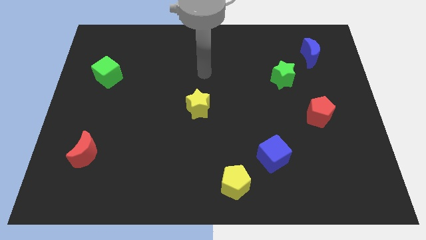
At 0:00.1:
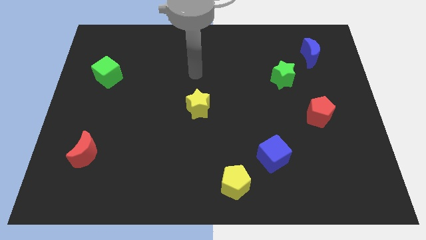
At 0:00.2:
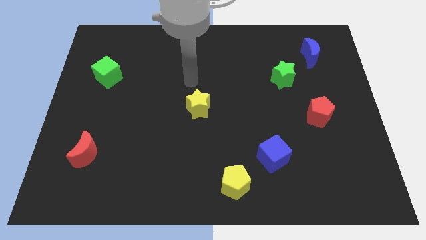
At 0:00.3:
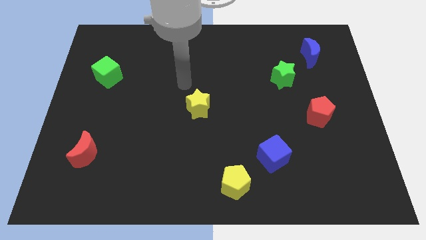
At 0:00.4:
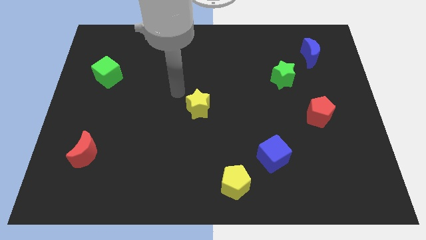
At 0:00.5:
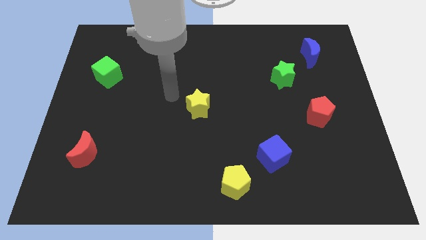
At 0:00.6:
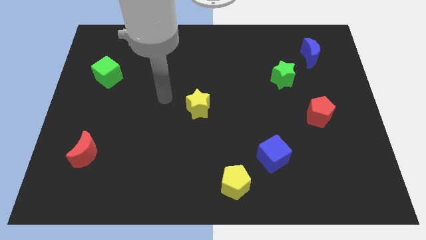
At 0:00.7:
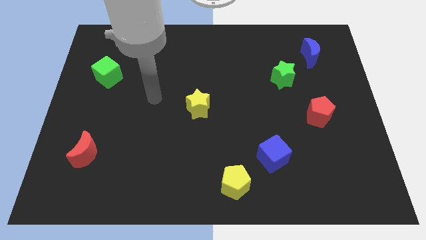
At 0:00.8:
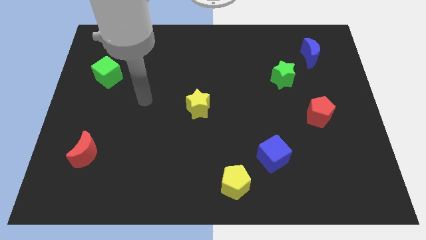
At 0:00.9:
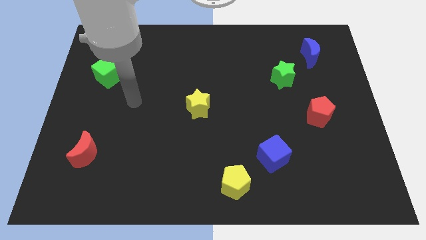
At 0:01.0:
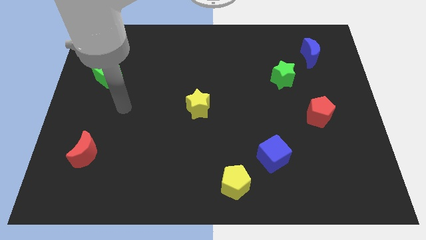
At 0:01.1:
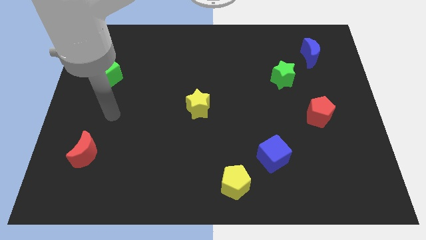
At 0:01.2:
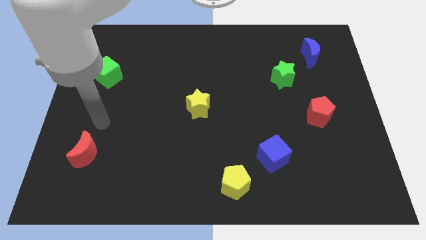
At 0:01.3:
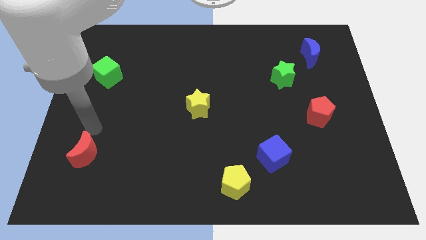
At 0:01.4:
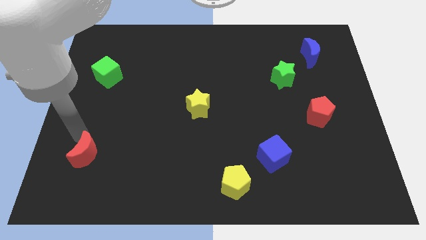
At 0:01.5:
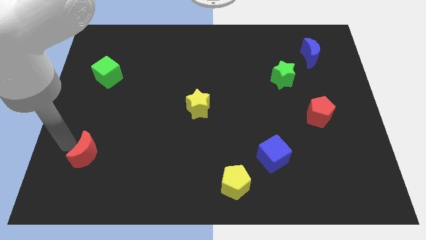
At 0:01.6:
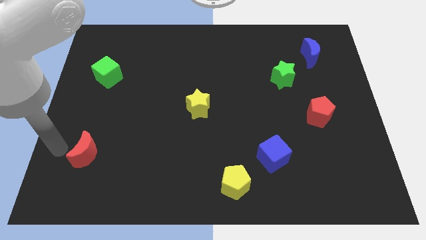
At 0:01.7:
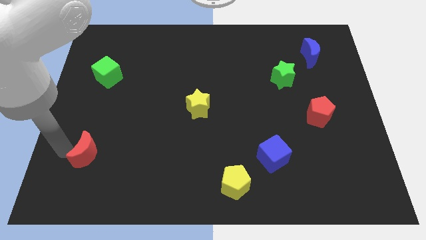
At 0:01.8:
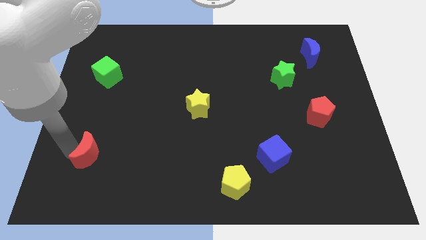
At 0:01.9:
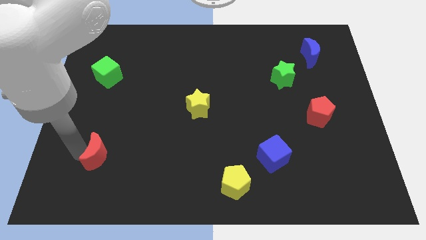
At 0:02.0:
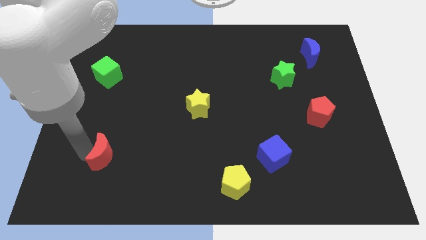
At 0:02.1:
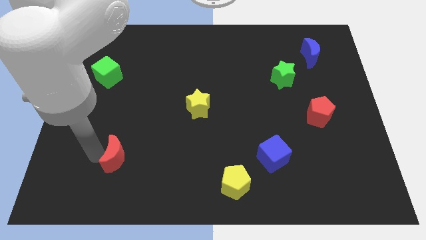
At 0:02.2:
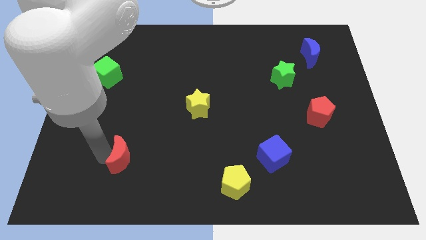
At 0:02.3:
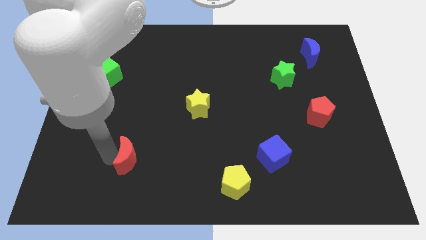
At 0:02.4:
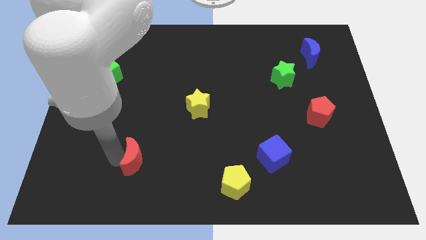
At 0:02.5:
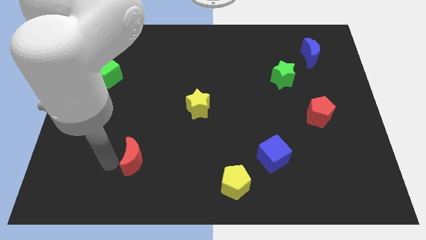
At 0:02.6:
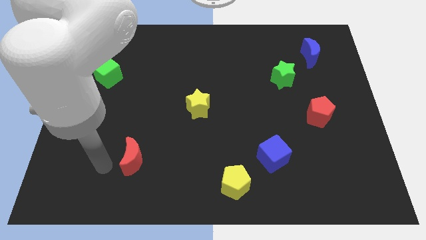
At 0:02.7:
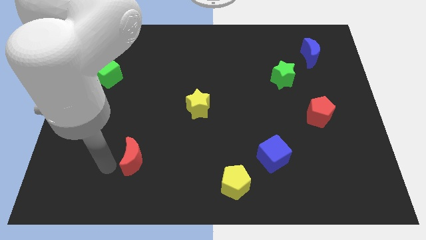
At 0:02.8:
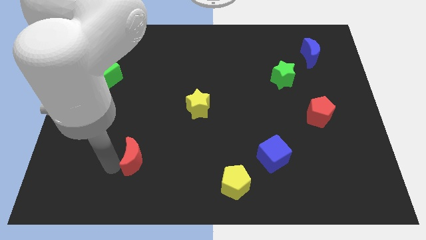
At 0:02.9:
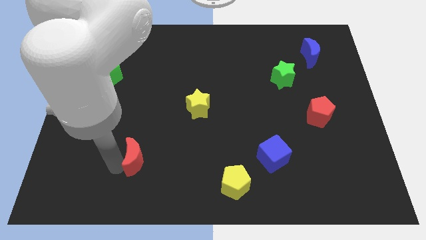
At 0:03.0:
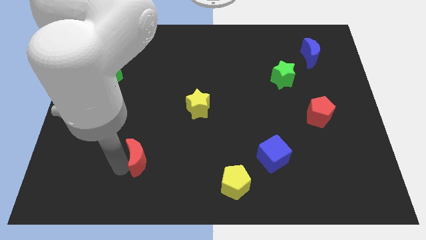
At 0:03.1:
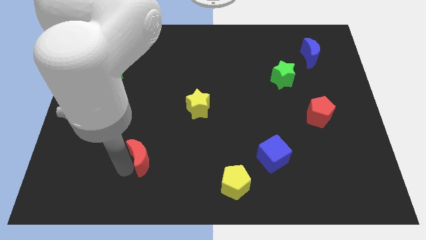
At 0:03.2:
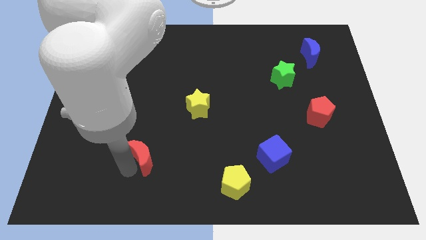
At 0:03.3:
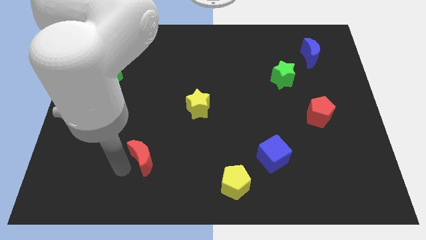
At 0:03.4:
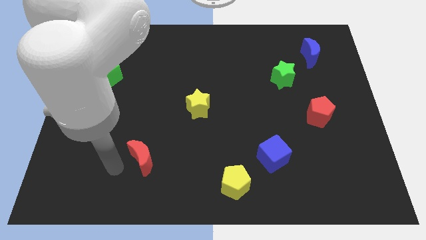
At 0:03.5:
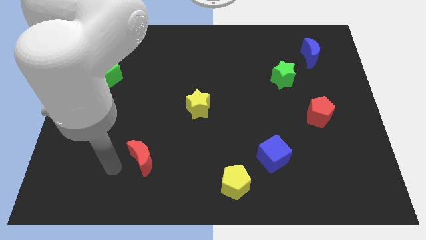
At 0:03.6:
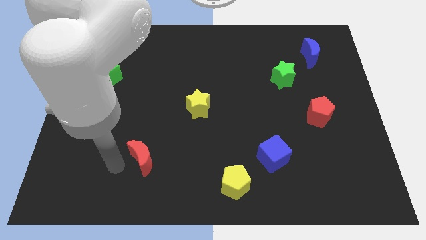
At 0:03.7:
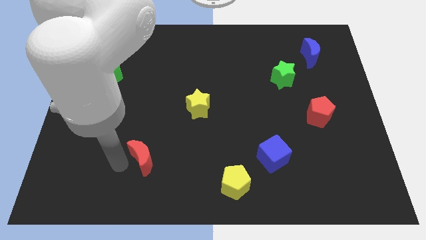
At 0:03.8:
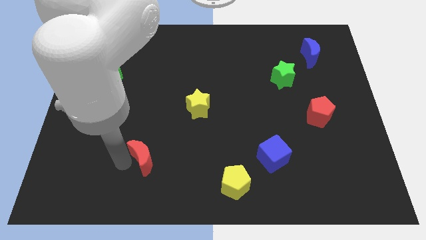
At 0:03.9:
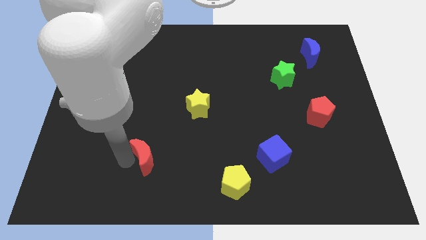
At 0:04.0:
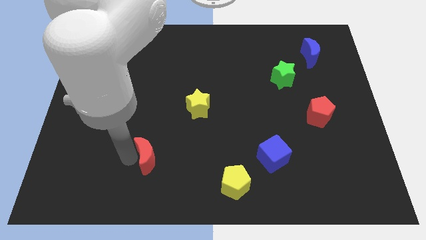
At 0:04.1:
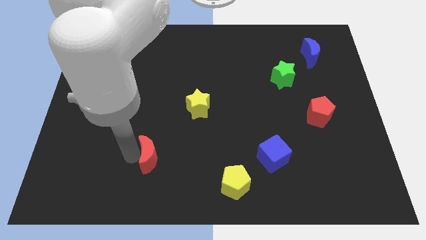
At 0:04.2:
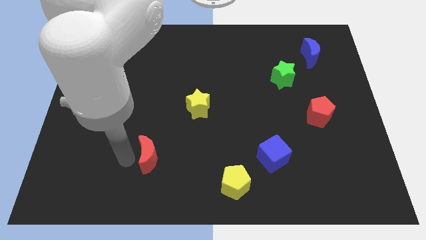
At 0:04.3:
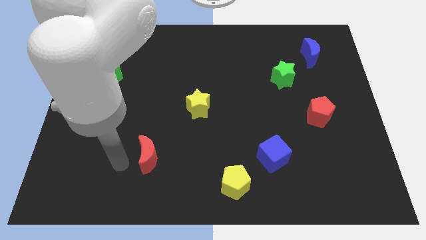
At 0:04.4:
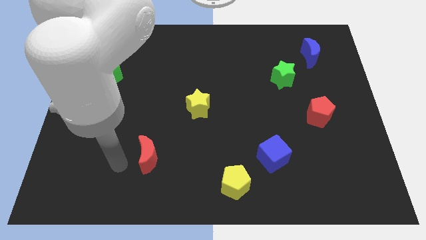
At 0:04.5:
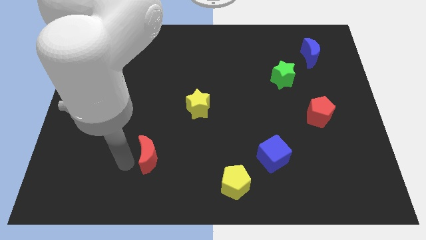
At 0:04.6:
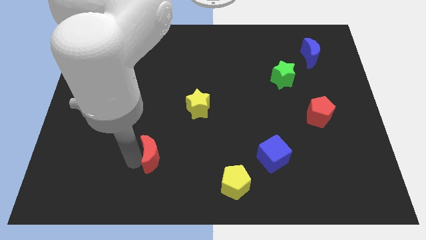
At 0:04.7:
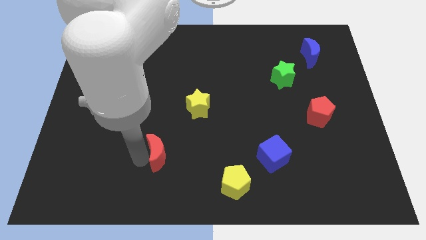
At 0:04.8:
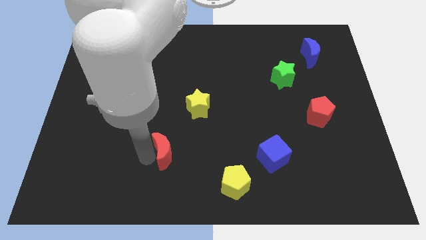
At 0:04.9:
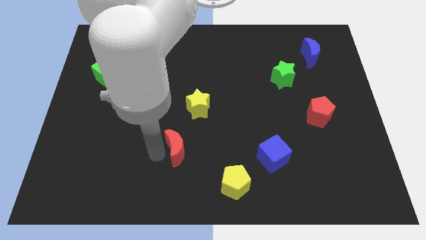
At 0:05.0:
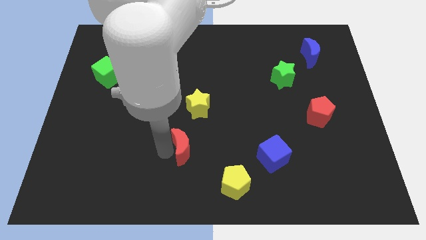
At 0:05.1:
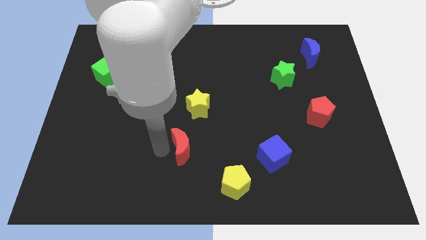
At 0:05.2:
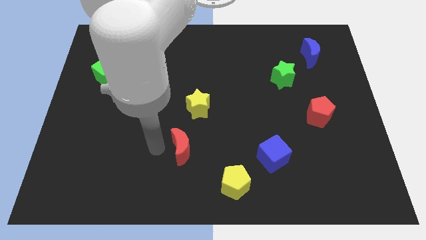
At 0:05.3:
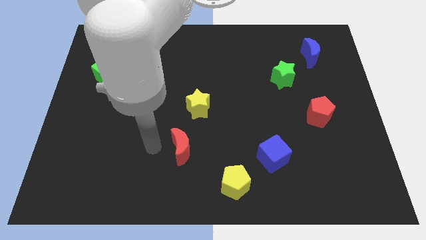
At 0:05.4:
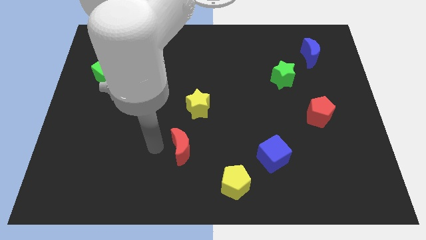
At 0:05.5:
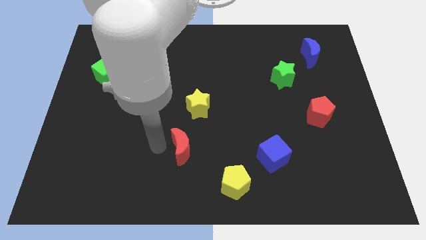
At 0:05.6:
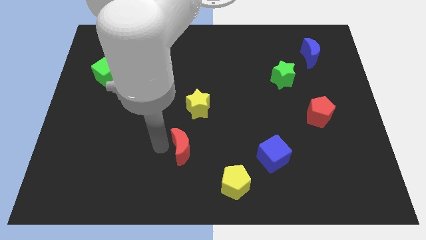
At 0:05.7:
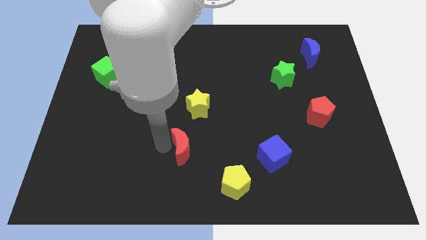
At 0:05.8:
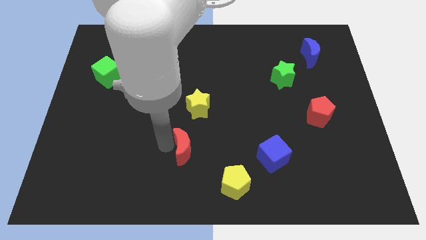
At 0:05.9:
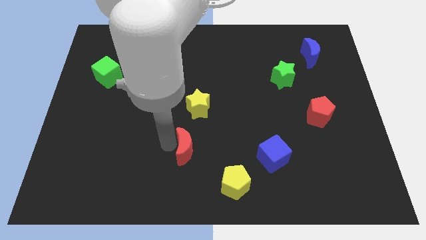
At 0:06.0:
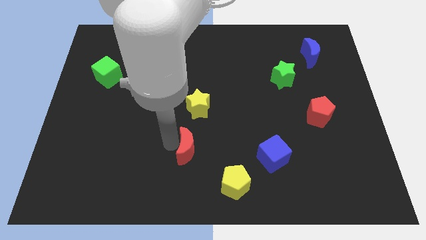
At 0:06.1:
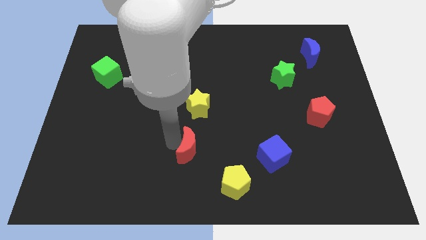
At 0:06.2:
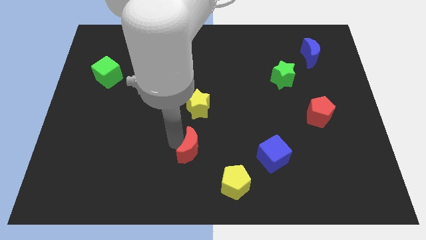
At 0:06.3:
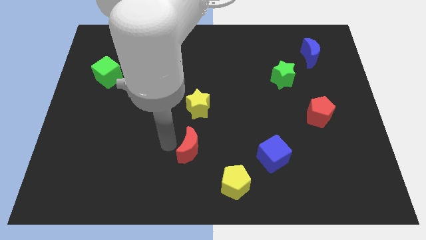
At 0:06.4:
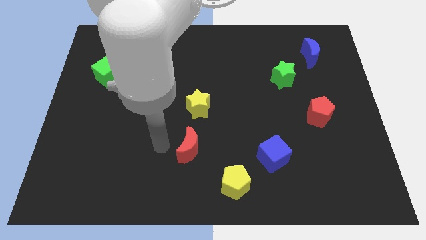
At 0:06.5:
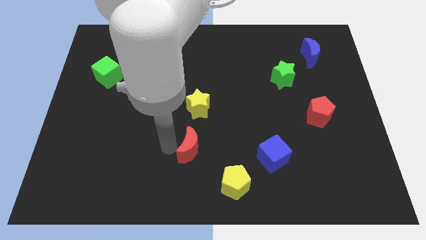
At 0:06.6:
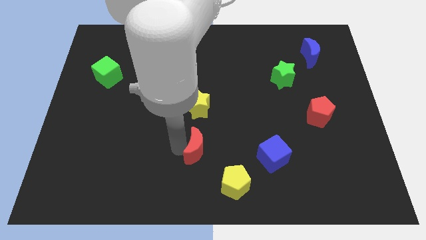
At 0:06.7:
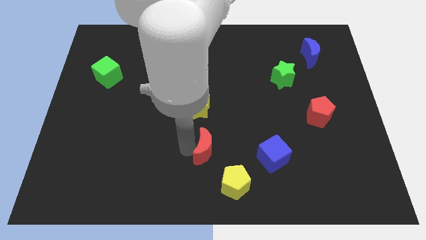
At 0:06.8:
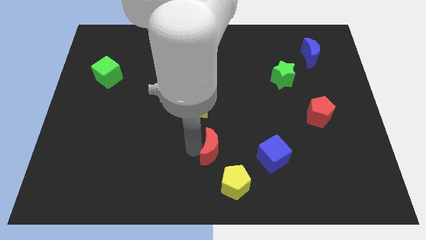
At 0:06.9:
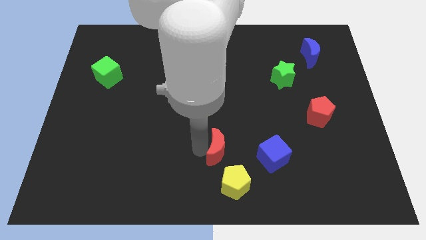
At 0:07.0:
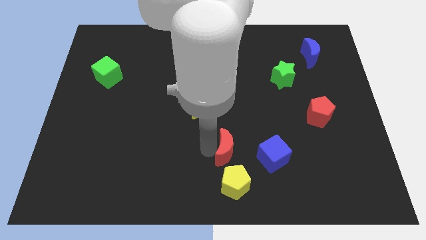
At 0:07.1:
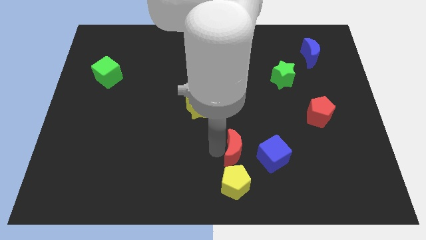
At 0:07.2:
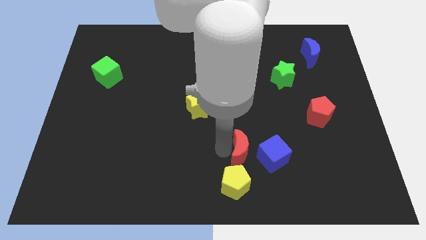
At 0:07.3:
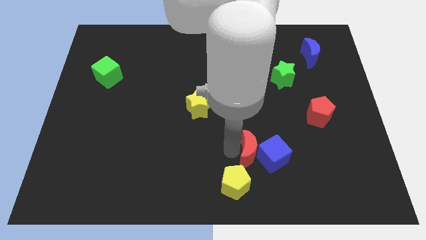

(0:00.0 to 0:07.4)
slide the red moon next to the blue cube
